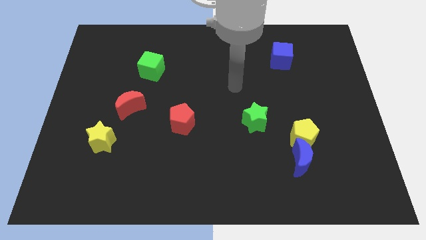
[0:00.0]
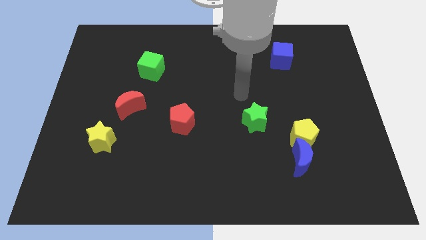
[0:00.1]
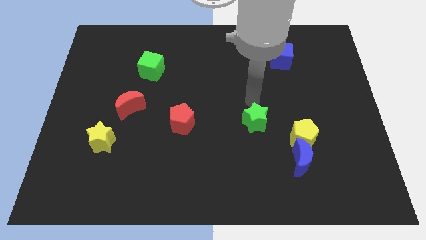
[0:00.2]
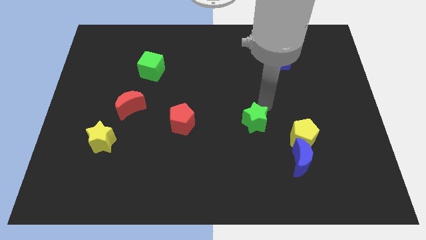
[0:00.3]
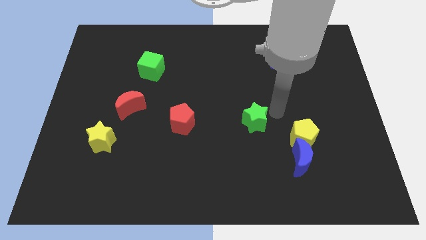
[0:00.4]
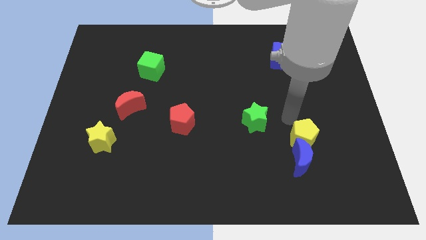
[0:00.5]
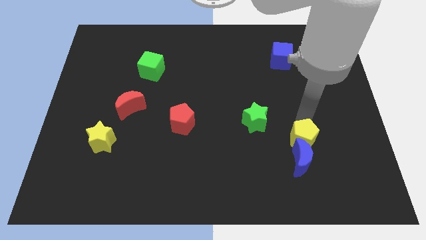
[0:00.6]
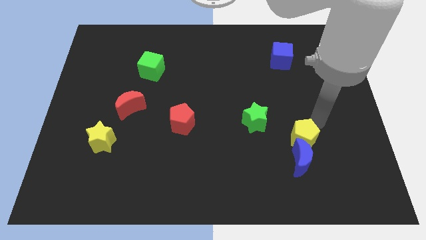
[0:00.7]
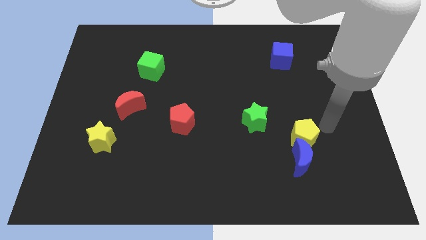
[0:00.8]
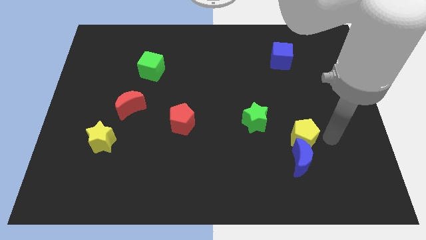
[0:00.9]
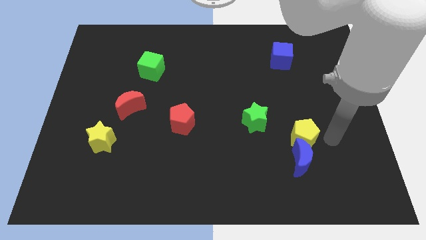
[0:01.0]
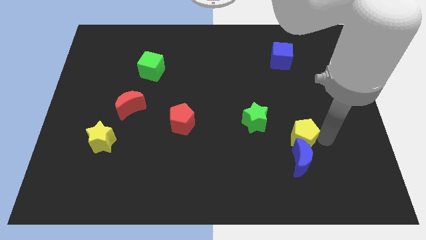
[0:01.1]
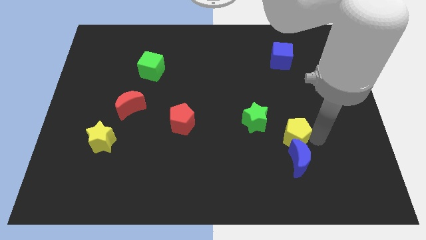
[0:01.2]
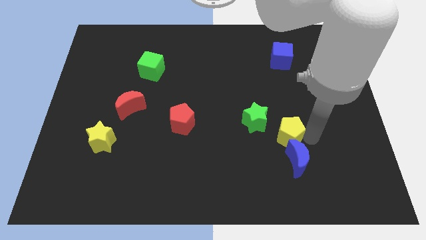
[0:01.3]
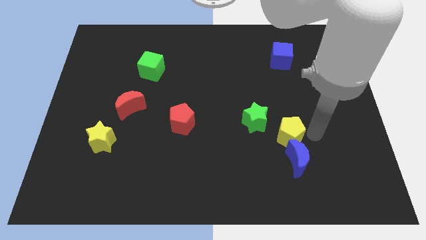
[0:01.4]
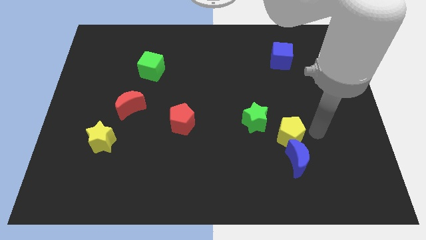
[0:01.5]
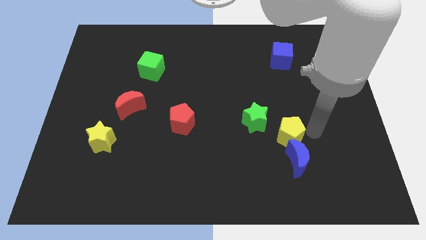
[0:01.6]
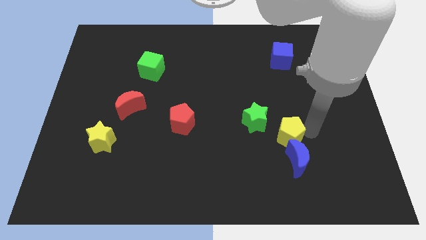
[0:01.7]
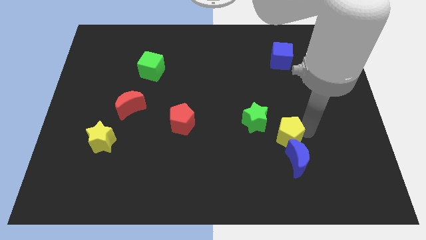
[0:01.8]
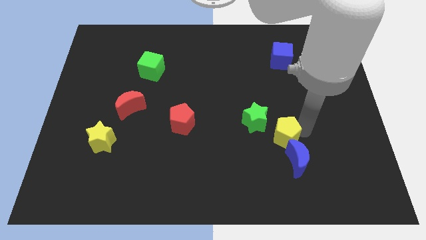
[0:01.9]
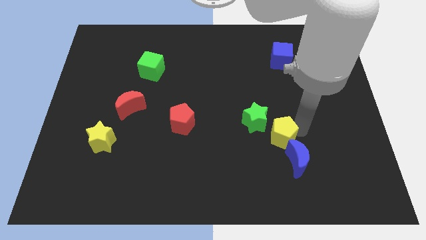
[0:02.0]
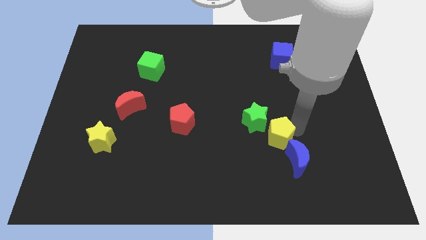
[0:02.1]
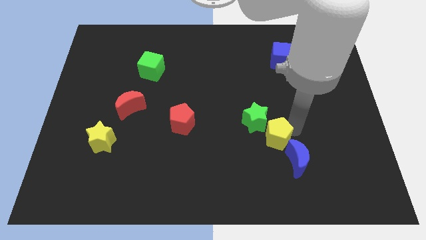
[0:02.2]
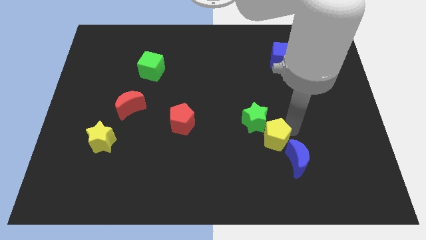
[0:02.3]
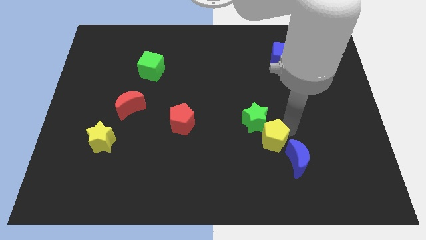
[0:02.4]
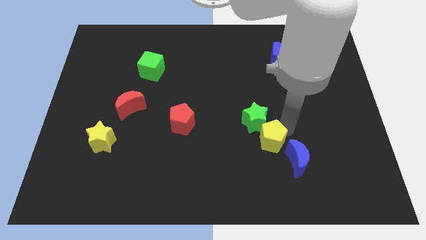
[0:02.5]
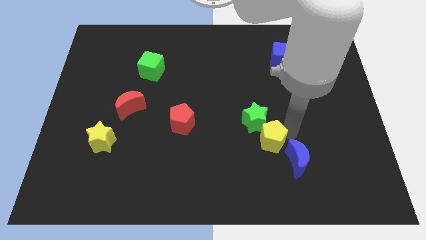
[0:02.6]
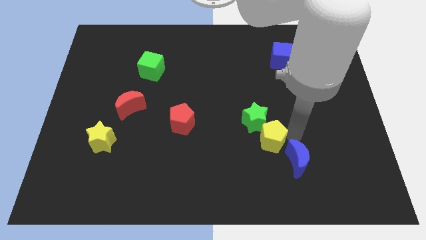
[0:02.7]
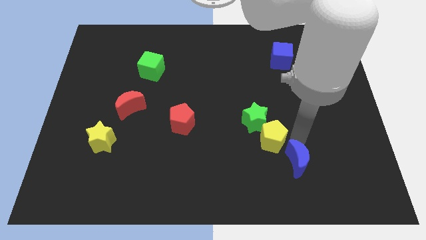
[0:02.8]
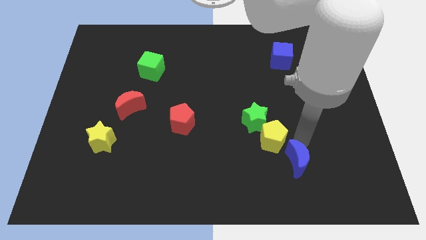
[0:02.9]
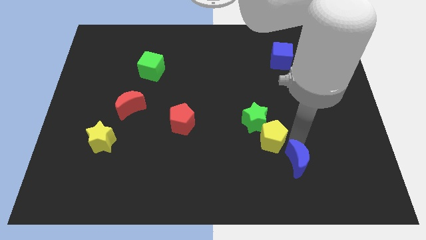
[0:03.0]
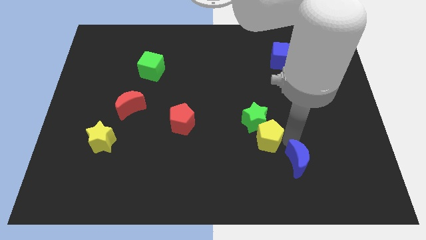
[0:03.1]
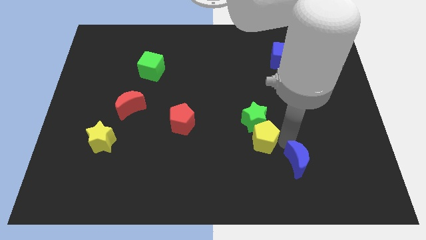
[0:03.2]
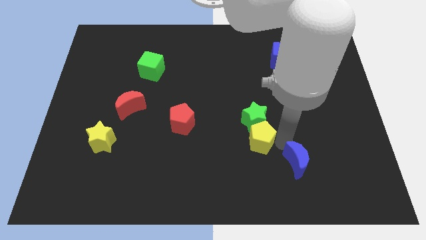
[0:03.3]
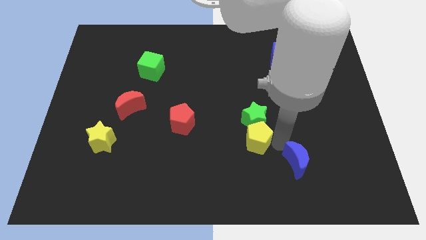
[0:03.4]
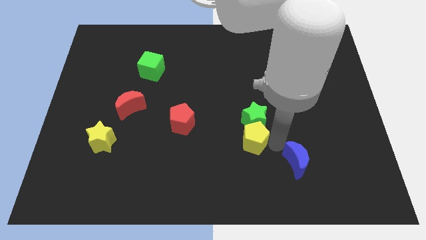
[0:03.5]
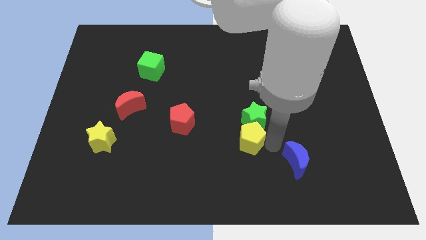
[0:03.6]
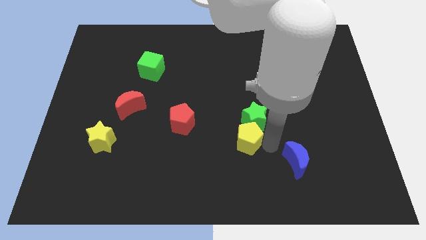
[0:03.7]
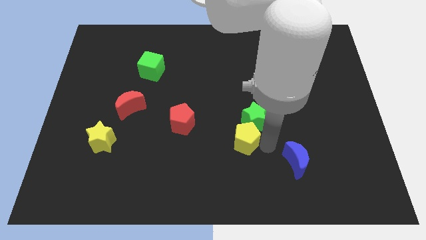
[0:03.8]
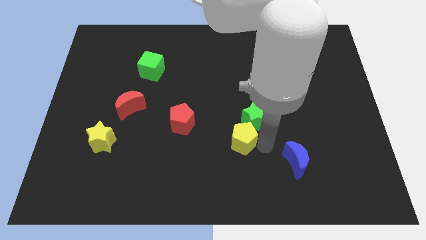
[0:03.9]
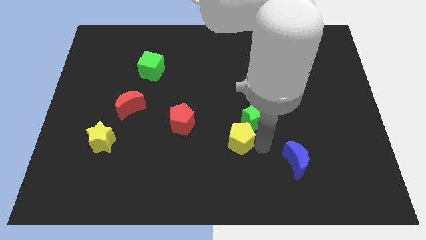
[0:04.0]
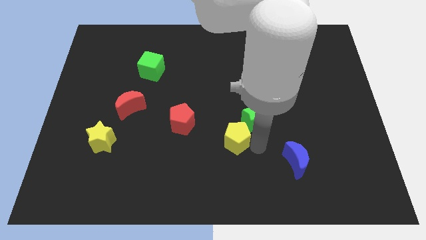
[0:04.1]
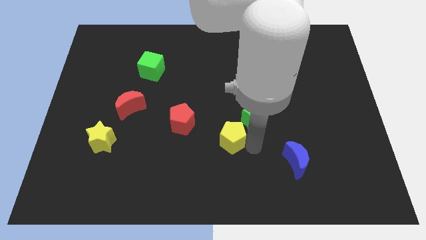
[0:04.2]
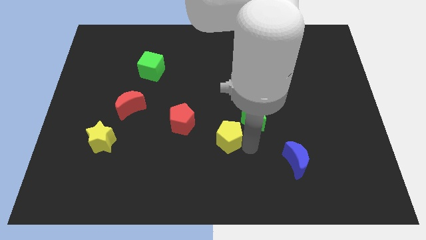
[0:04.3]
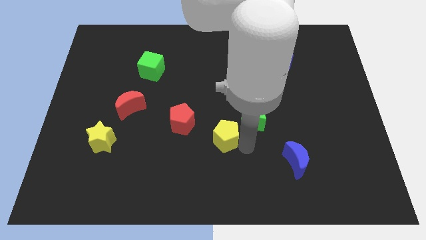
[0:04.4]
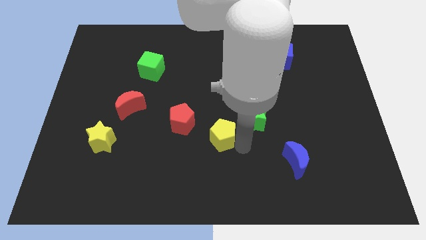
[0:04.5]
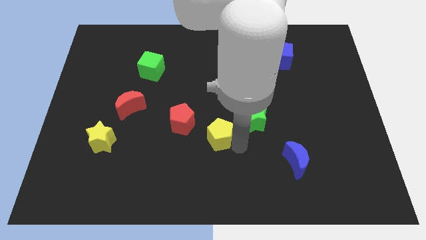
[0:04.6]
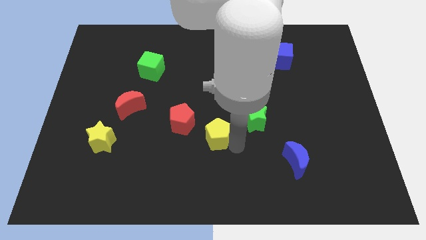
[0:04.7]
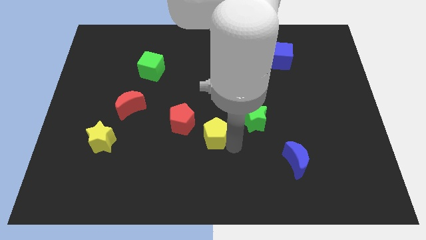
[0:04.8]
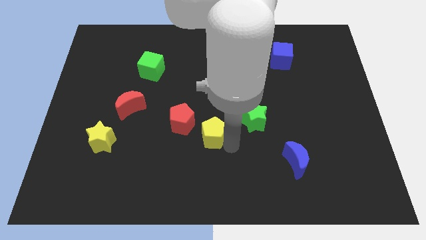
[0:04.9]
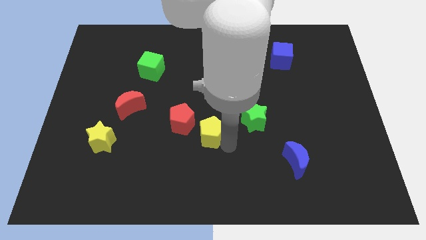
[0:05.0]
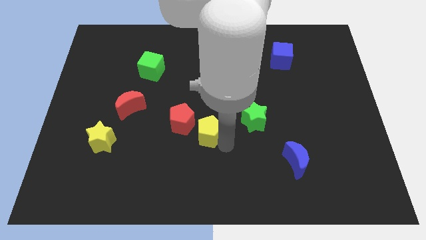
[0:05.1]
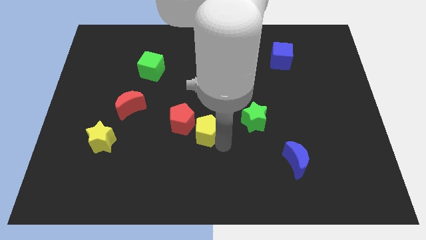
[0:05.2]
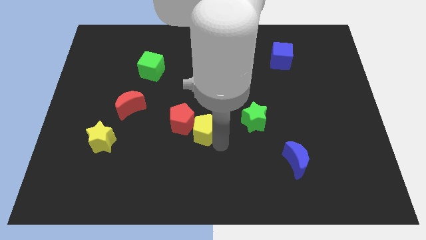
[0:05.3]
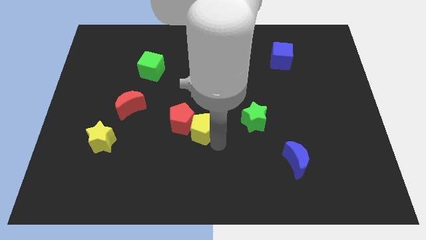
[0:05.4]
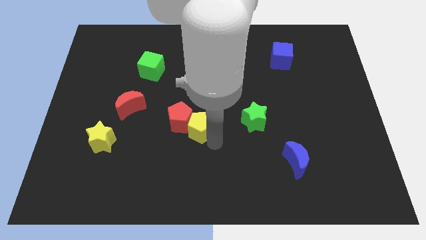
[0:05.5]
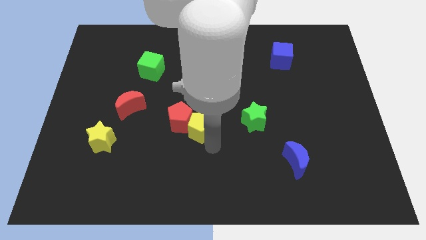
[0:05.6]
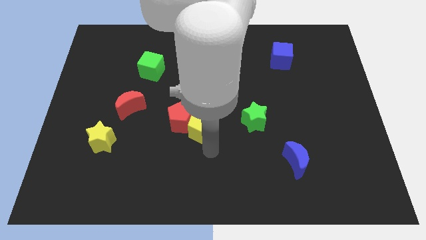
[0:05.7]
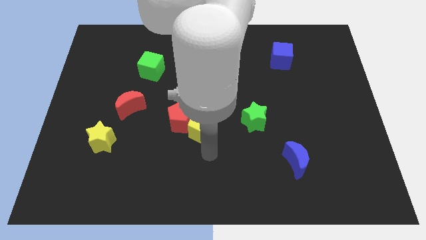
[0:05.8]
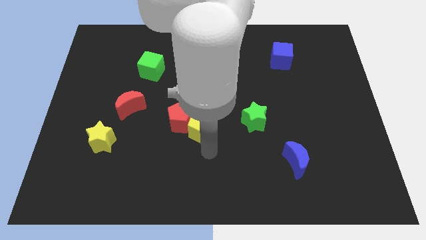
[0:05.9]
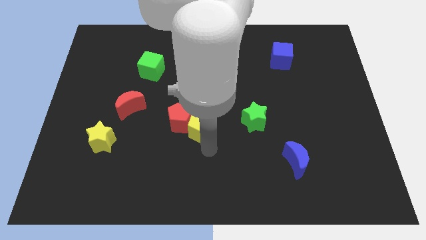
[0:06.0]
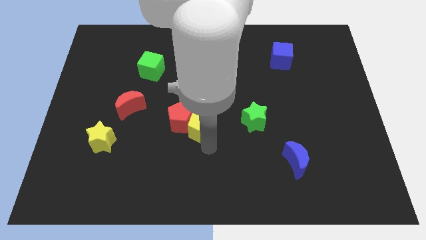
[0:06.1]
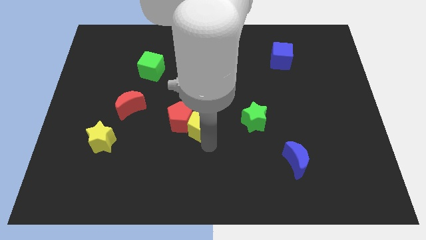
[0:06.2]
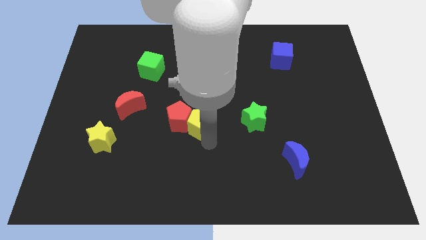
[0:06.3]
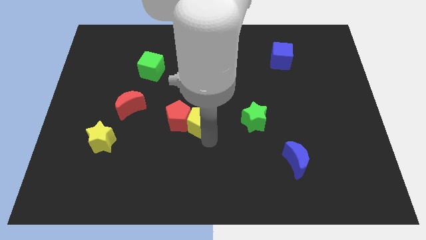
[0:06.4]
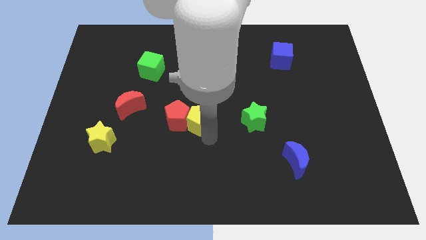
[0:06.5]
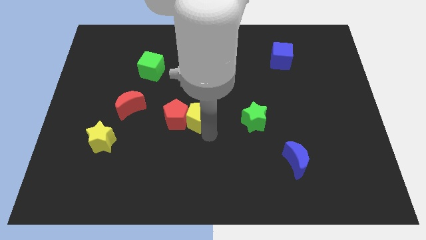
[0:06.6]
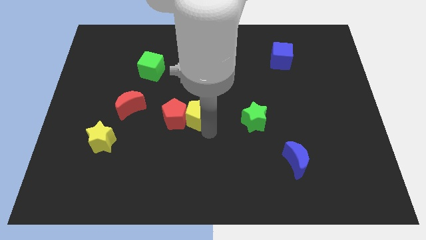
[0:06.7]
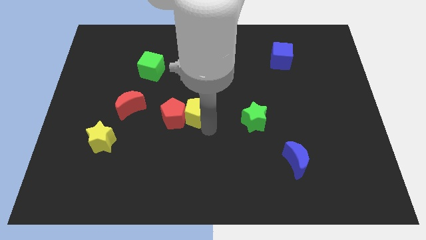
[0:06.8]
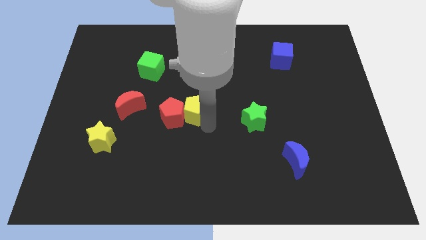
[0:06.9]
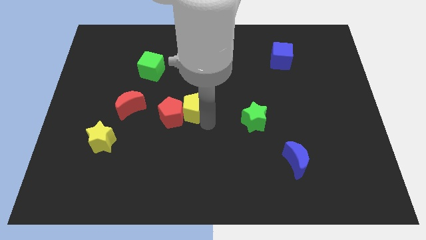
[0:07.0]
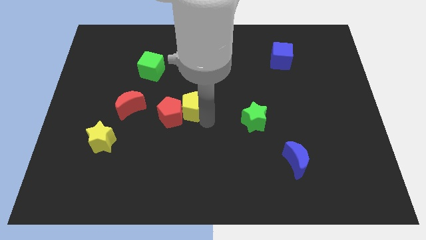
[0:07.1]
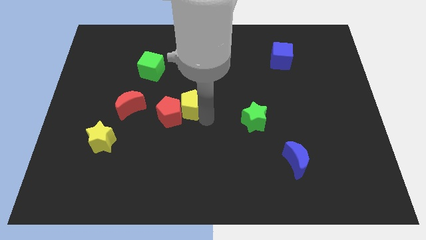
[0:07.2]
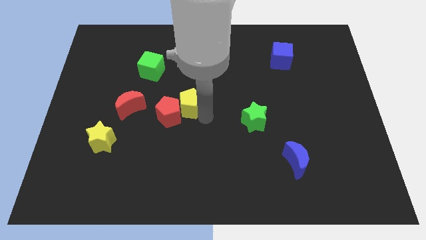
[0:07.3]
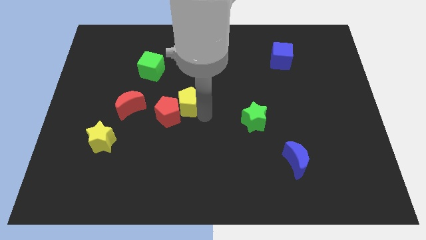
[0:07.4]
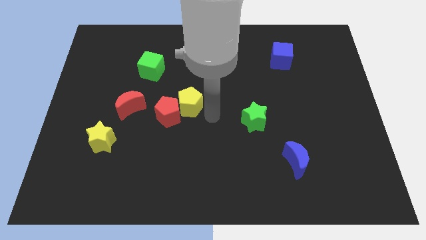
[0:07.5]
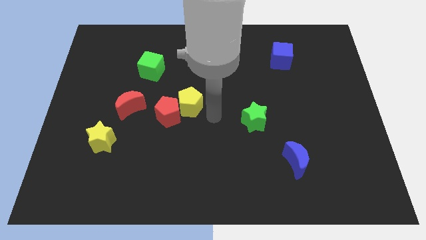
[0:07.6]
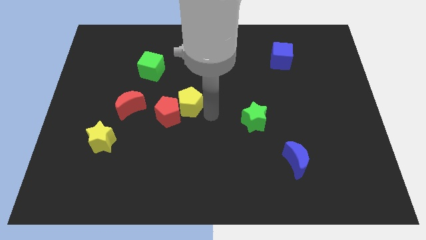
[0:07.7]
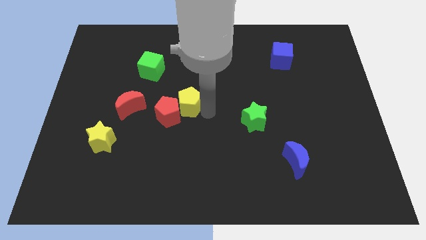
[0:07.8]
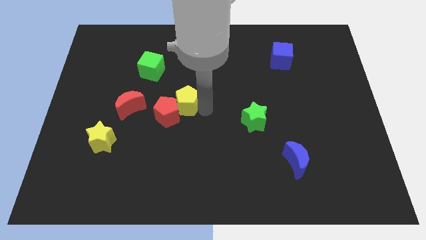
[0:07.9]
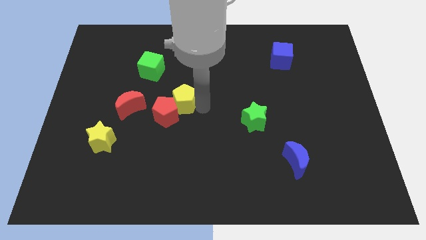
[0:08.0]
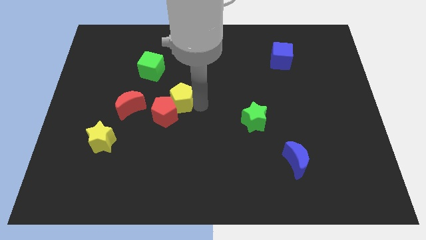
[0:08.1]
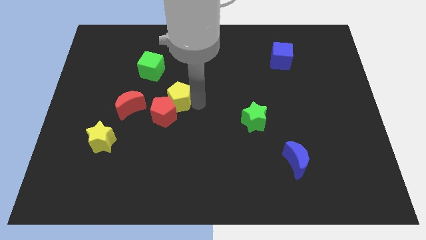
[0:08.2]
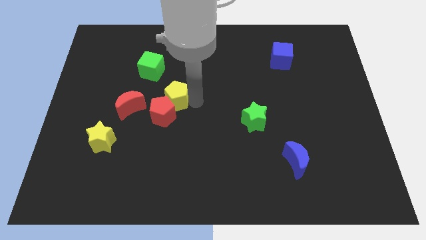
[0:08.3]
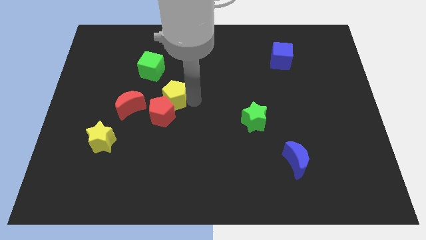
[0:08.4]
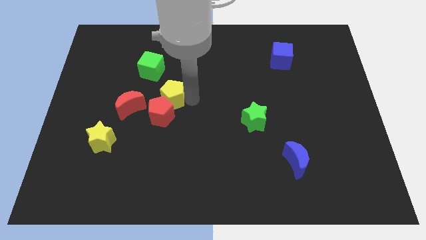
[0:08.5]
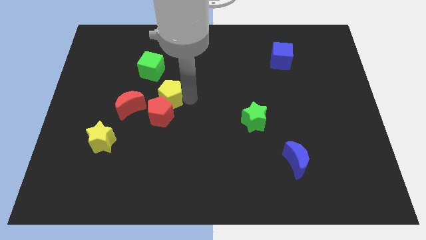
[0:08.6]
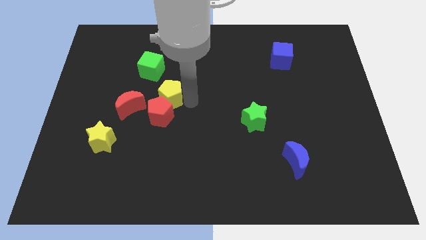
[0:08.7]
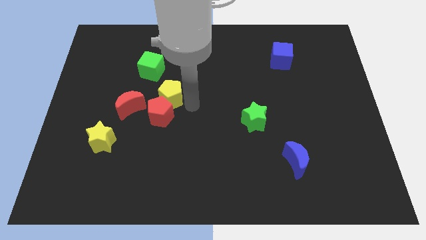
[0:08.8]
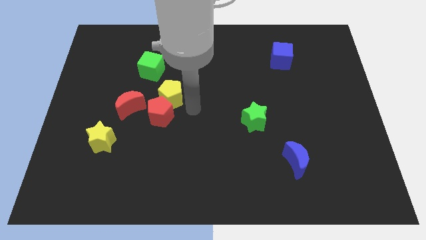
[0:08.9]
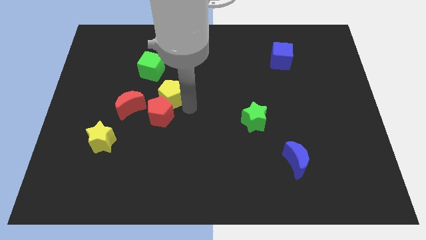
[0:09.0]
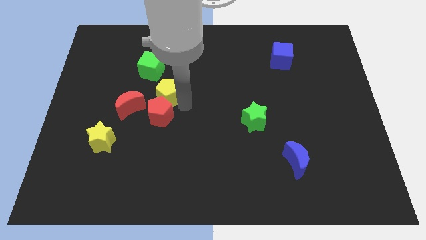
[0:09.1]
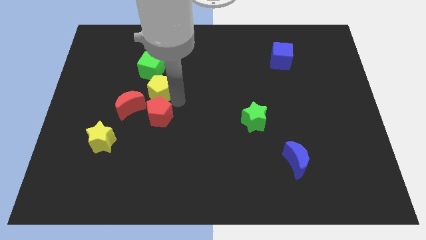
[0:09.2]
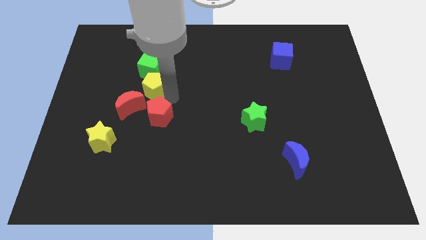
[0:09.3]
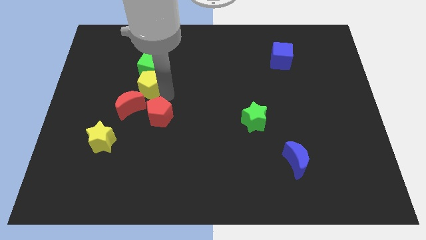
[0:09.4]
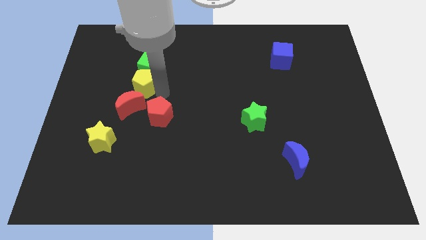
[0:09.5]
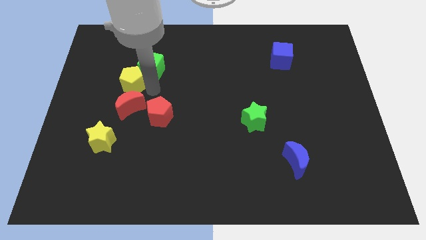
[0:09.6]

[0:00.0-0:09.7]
push the yellow pentagon left of the green cube
